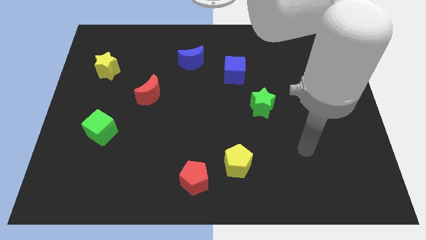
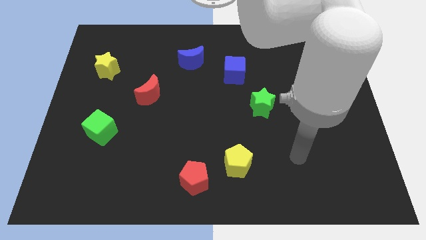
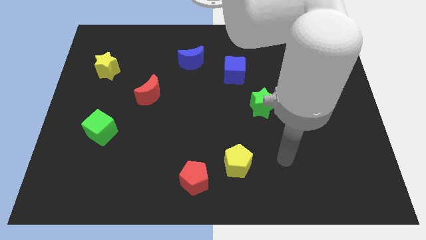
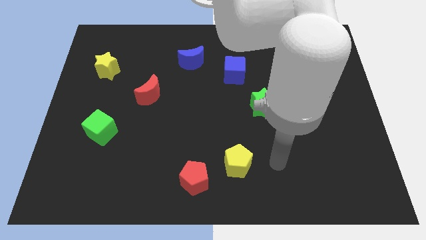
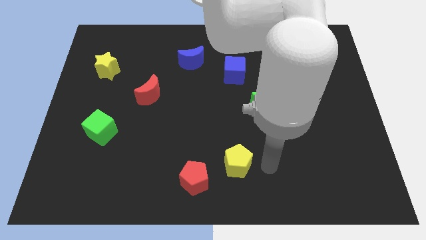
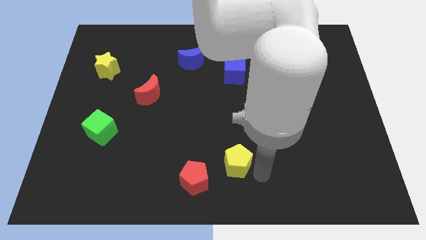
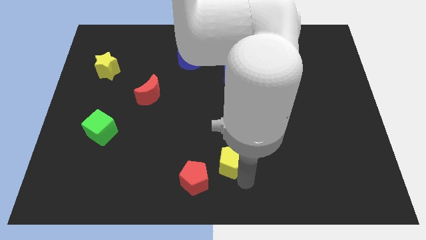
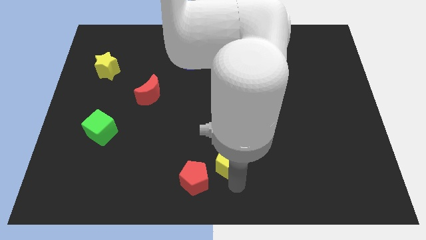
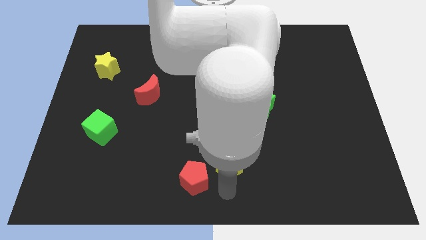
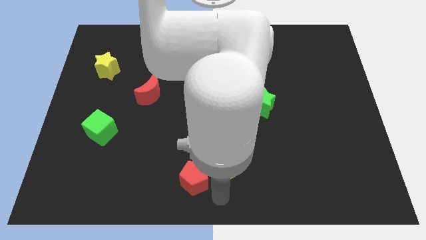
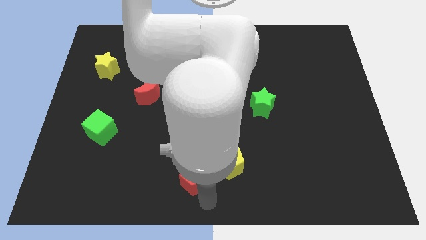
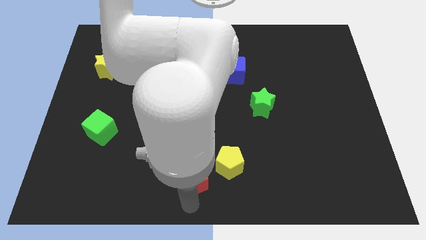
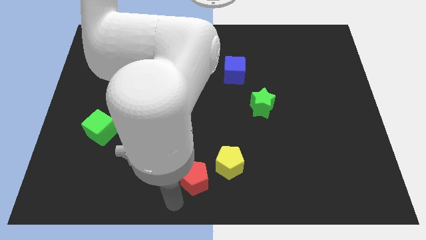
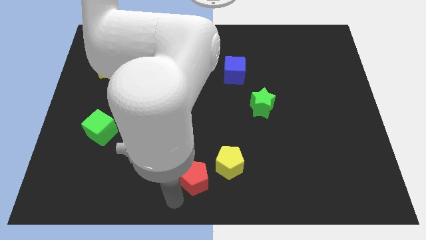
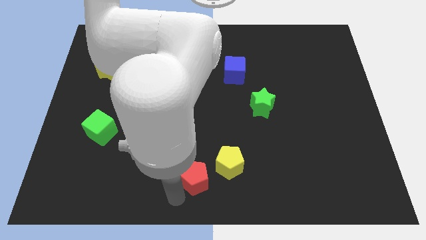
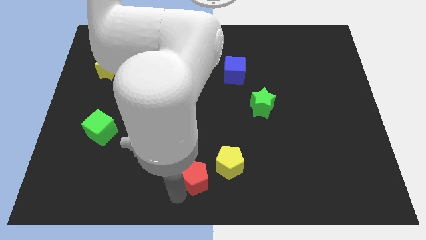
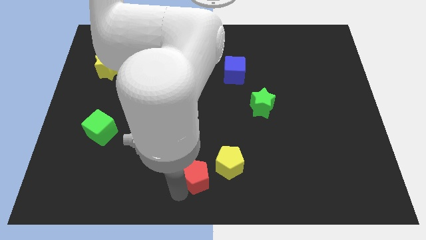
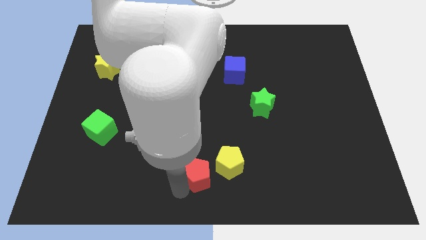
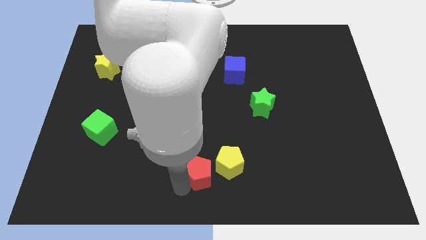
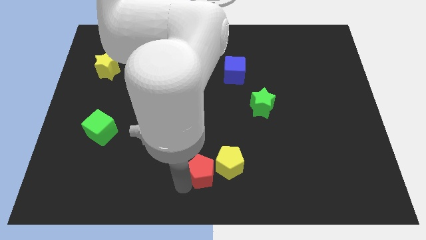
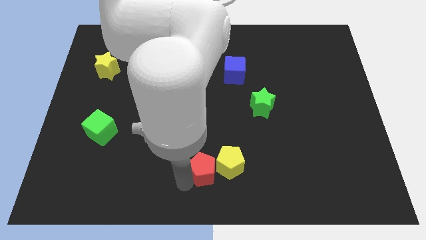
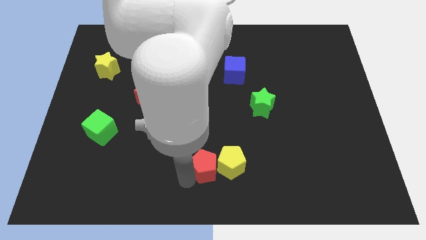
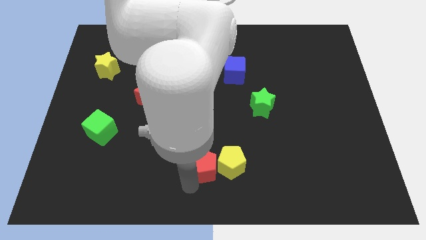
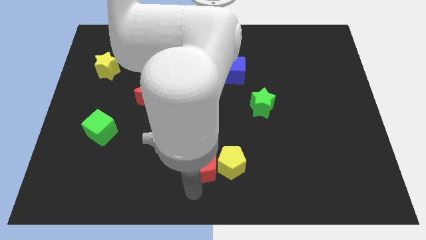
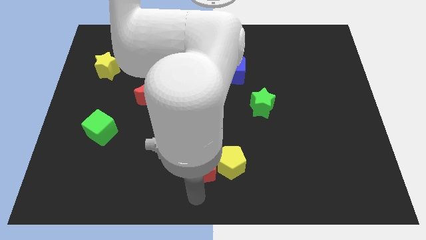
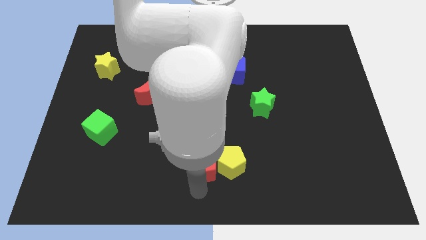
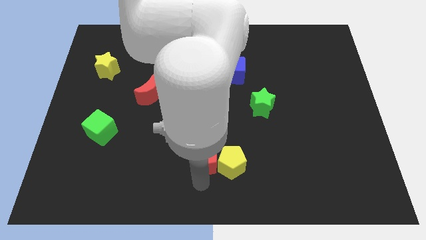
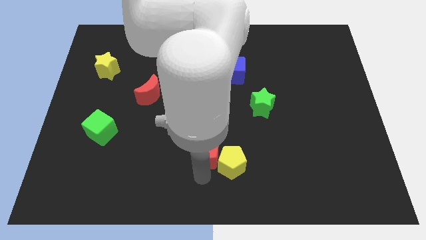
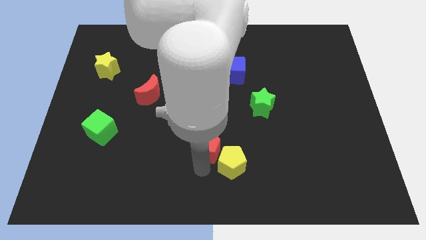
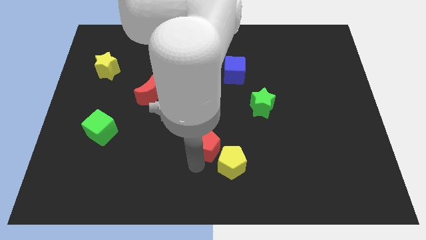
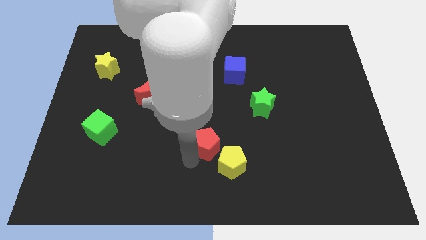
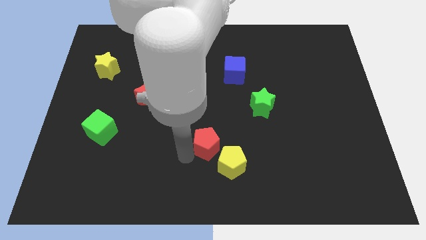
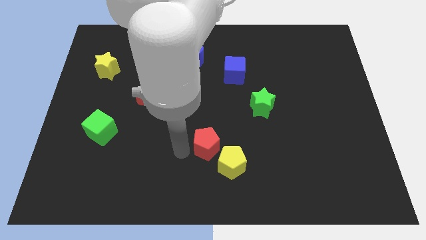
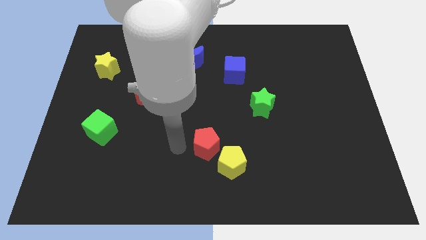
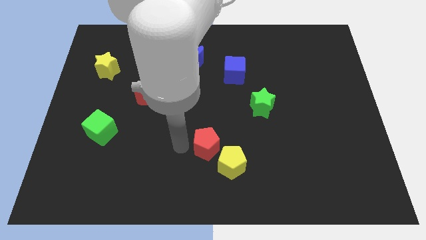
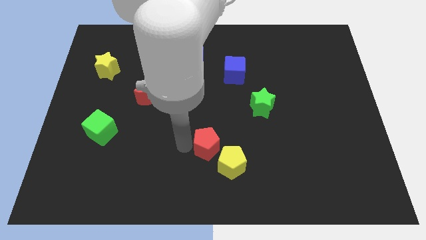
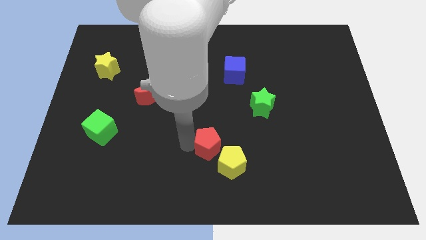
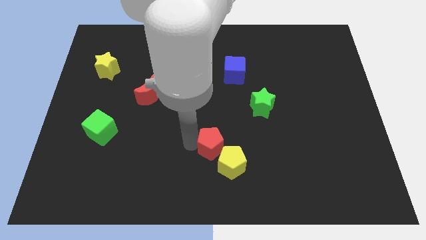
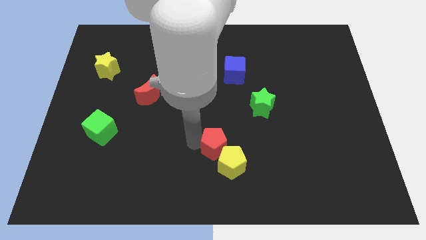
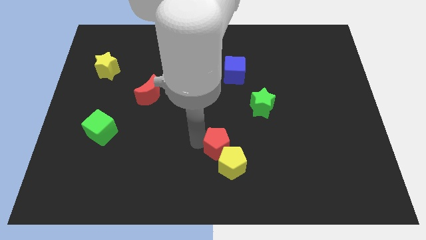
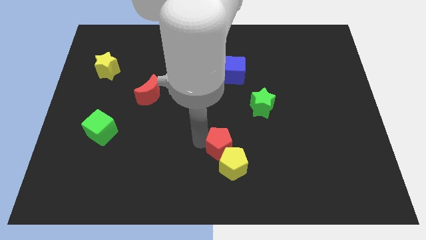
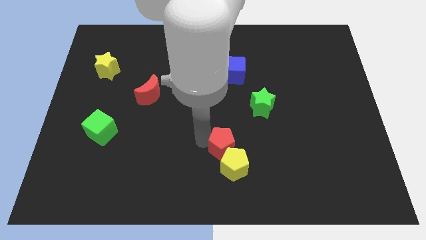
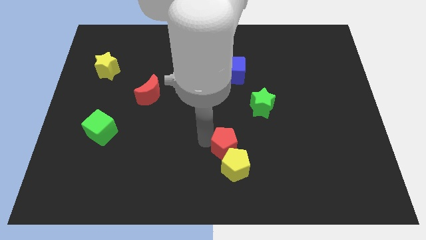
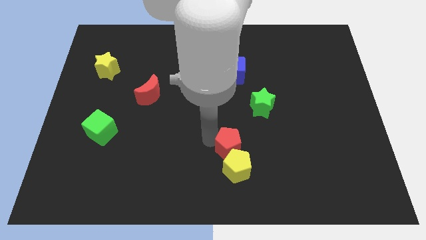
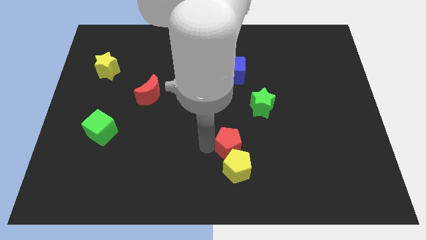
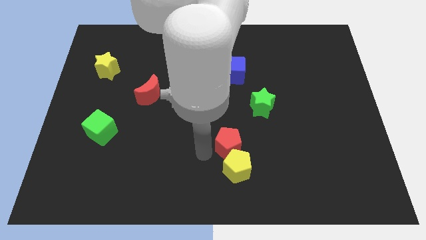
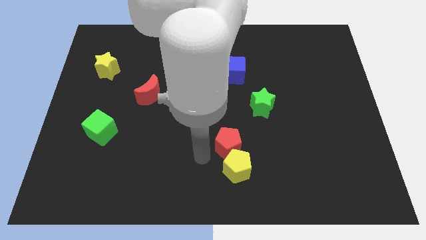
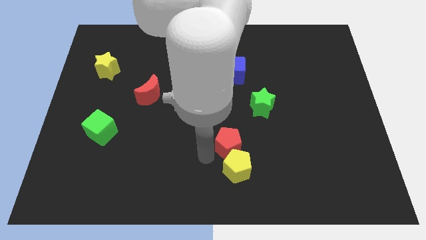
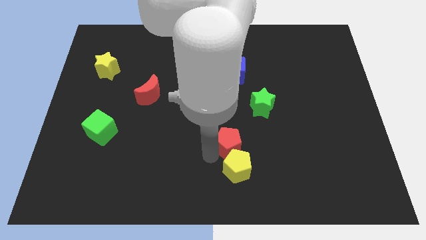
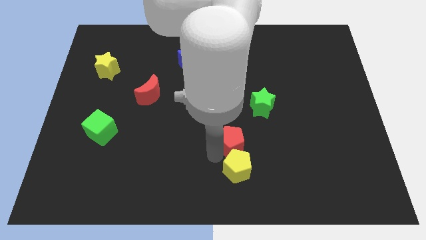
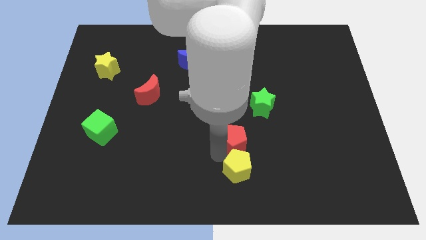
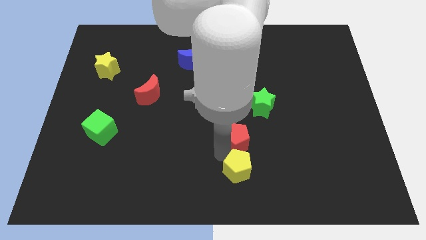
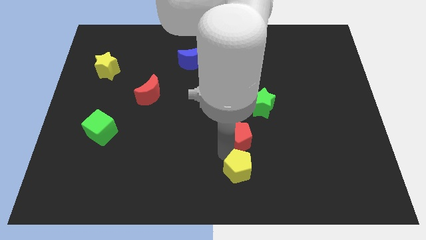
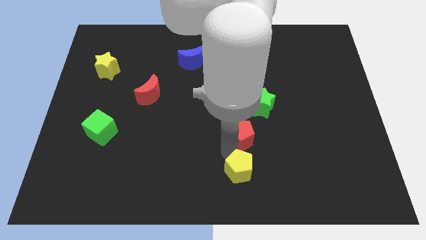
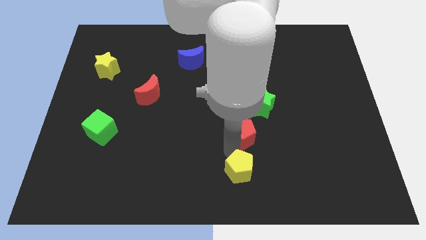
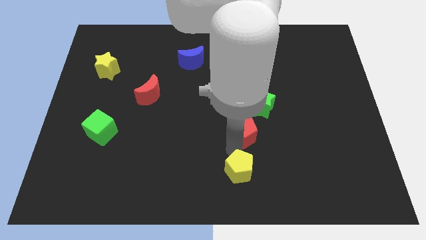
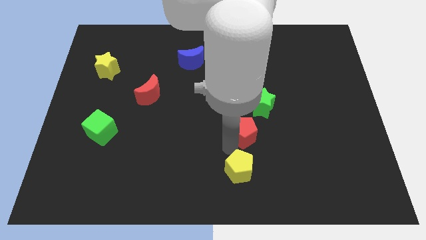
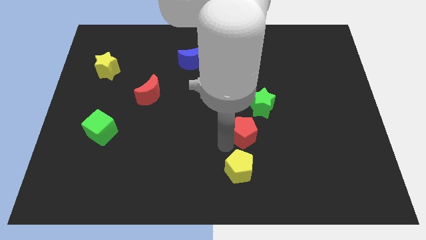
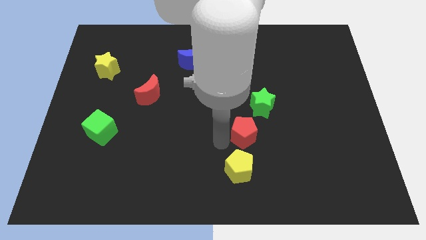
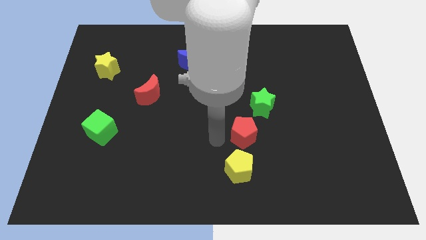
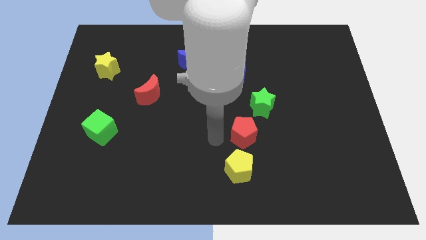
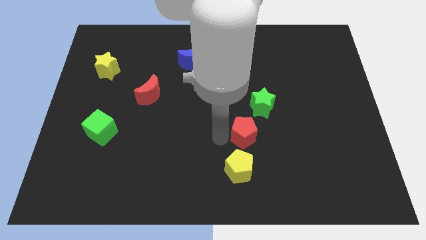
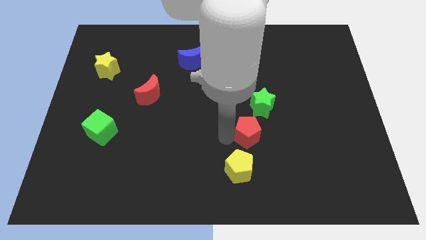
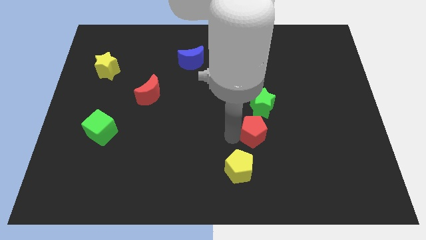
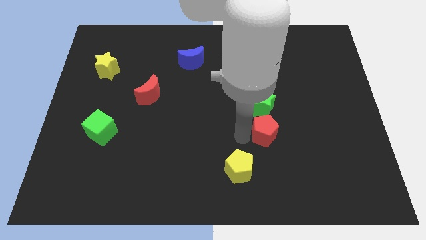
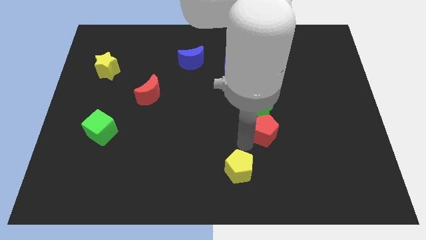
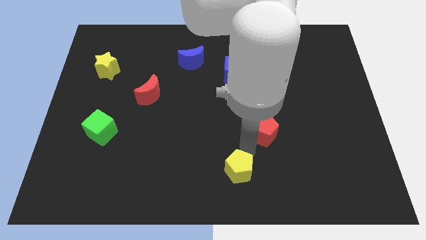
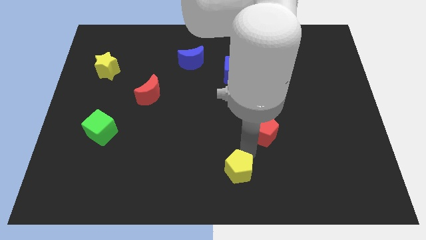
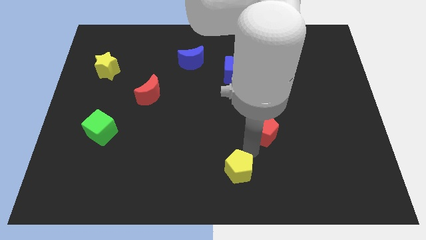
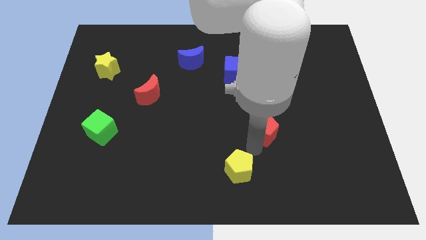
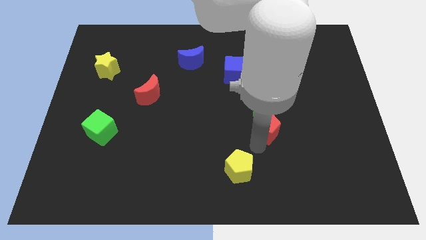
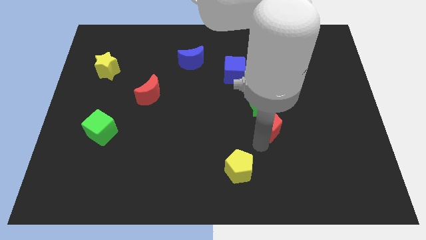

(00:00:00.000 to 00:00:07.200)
push the red pentagon up and right

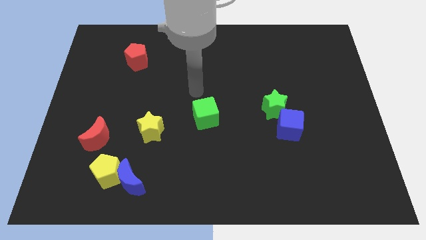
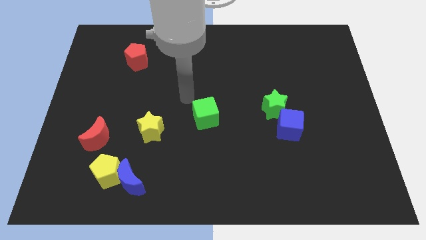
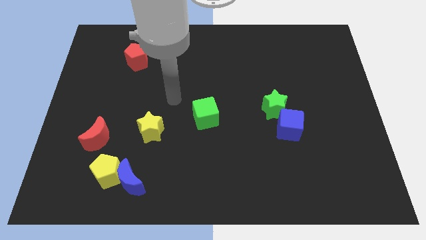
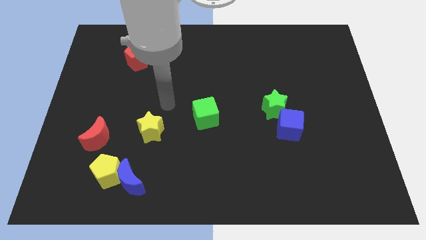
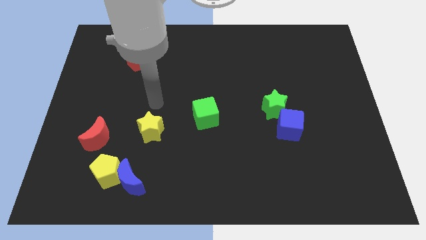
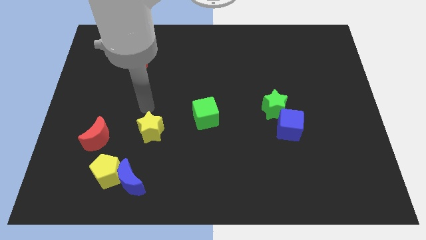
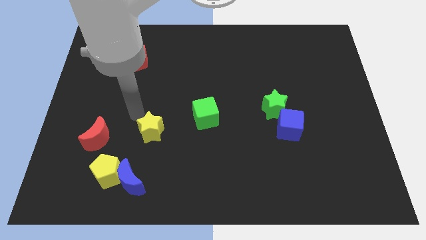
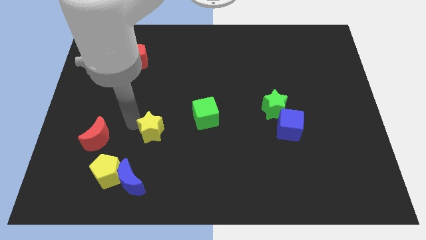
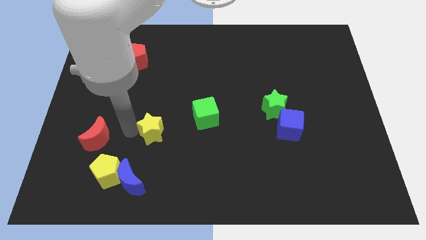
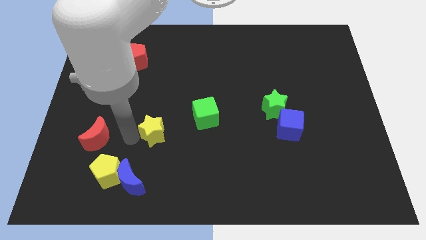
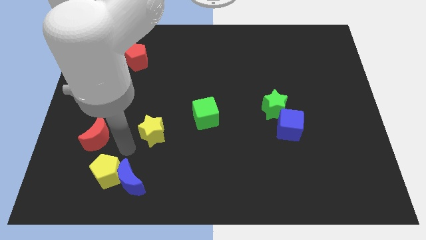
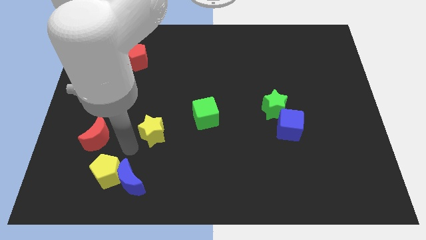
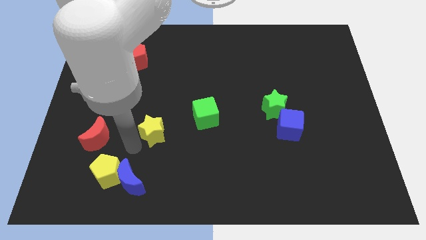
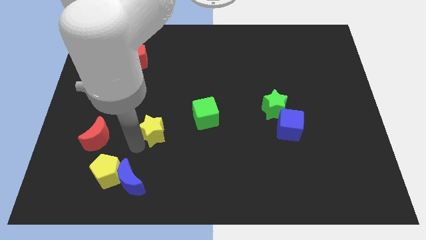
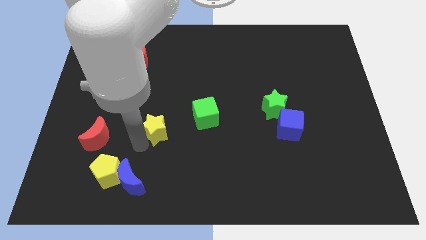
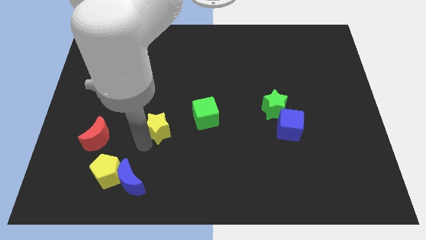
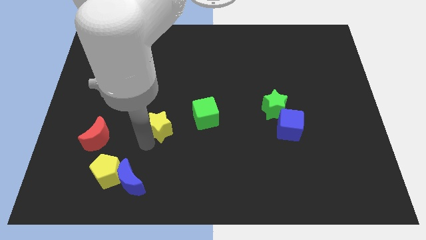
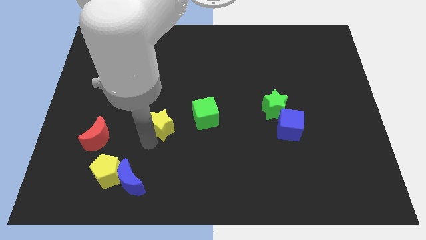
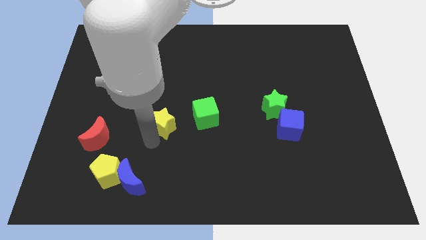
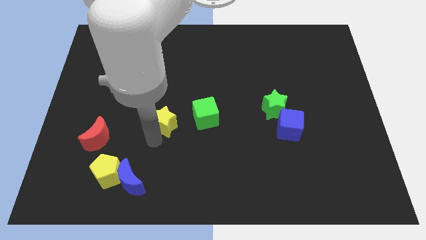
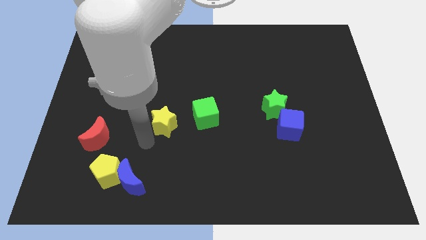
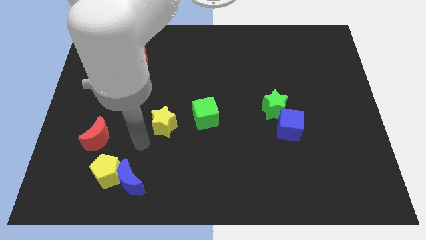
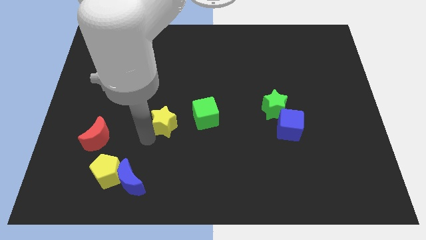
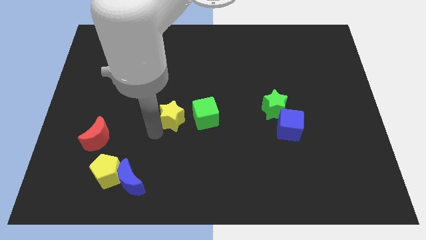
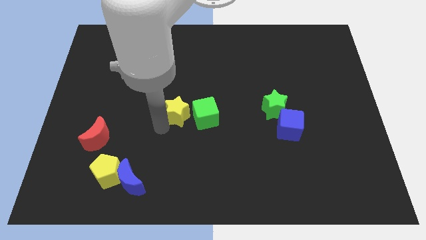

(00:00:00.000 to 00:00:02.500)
slightly slide the yellow star diagonally upwards and to the right
